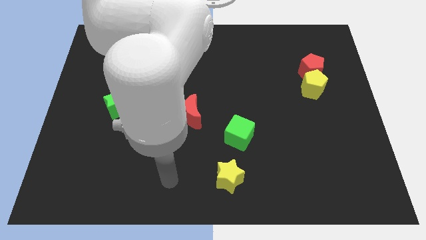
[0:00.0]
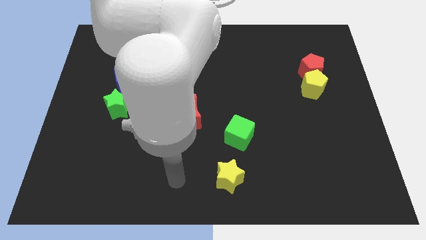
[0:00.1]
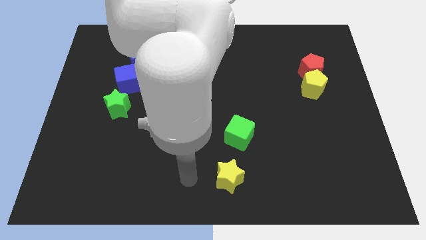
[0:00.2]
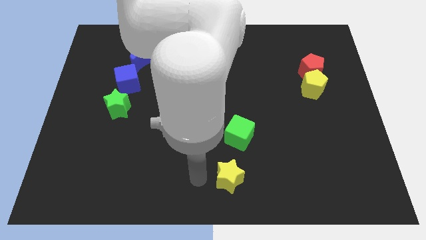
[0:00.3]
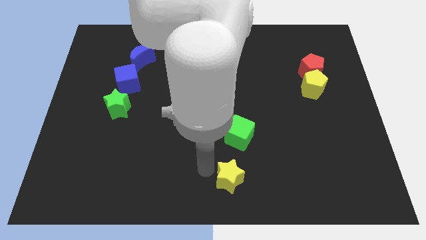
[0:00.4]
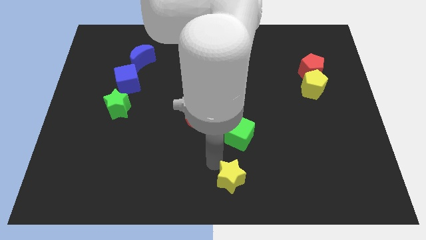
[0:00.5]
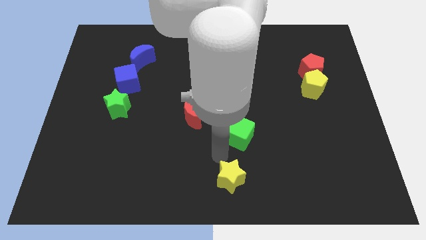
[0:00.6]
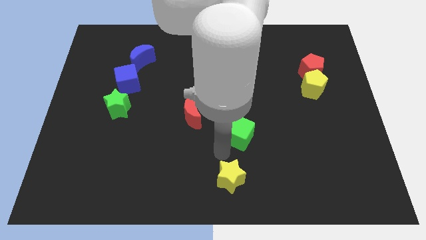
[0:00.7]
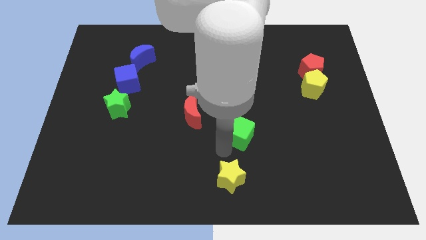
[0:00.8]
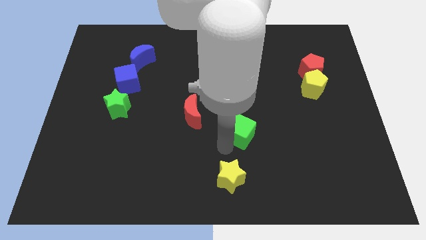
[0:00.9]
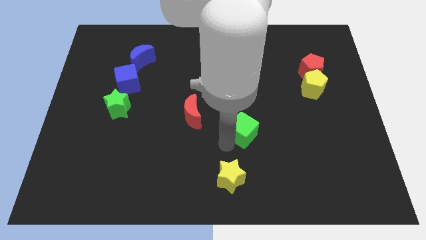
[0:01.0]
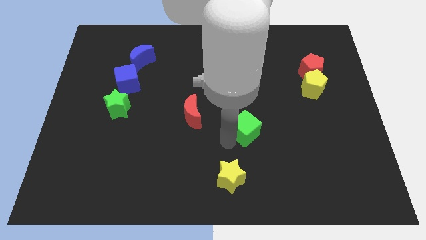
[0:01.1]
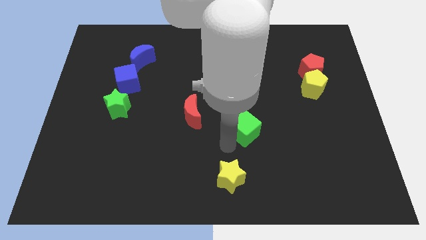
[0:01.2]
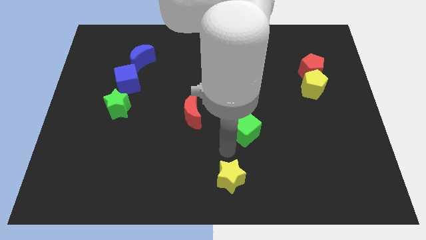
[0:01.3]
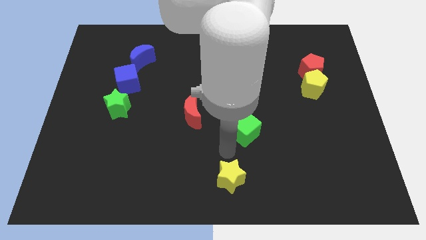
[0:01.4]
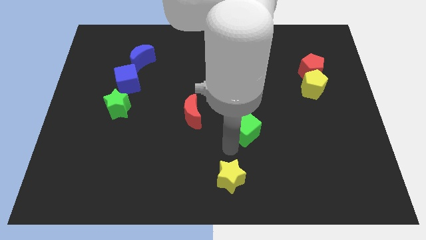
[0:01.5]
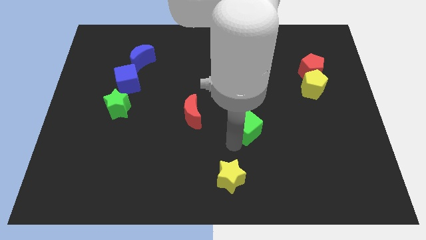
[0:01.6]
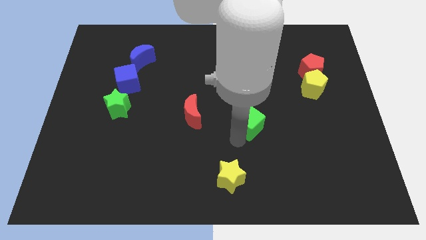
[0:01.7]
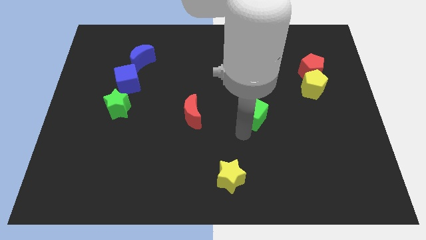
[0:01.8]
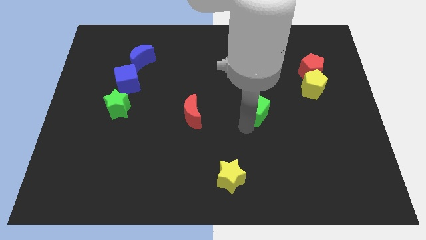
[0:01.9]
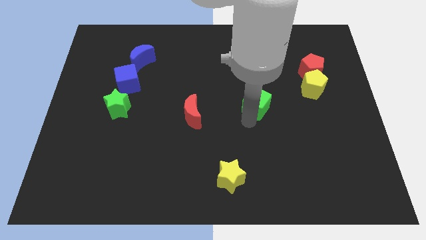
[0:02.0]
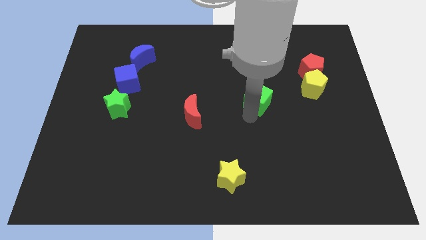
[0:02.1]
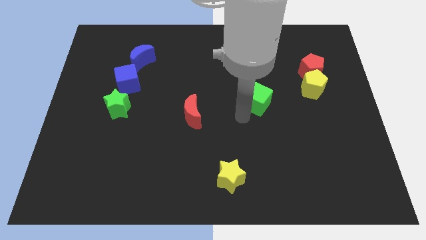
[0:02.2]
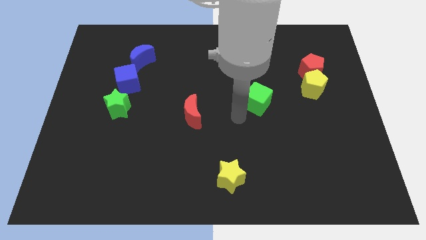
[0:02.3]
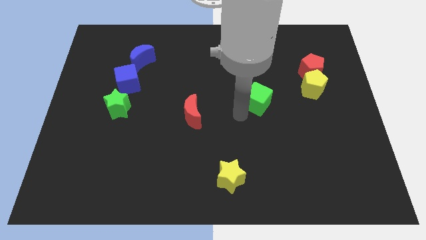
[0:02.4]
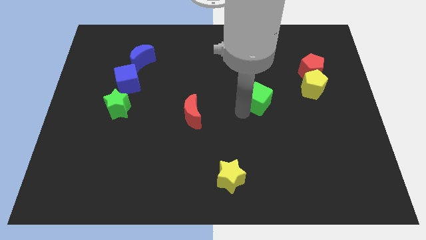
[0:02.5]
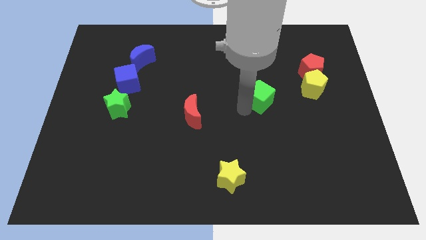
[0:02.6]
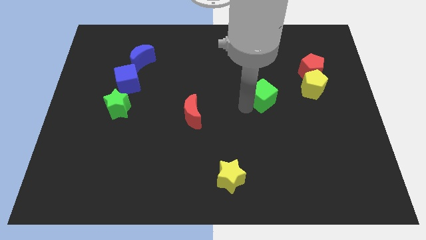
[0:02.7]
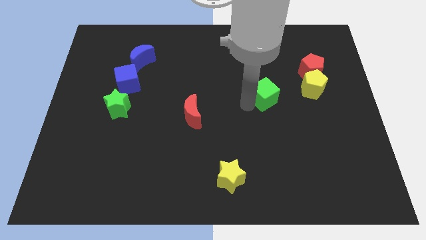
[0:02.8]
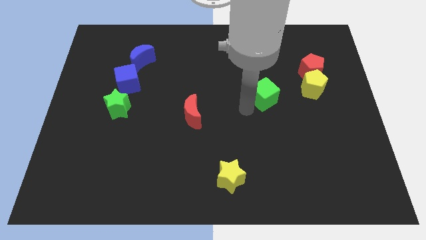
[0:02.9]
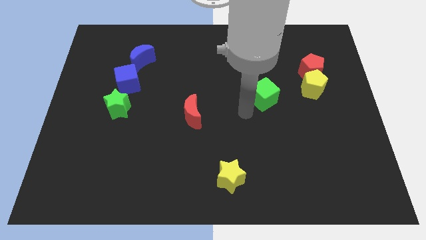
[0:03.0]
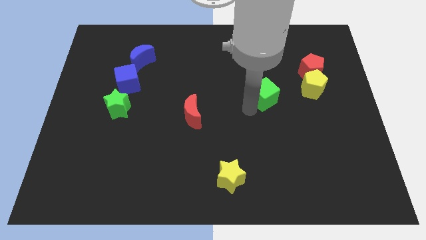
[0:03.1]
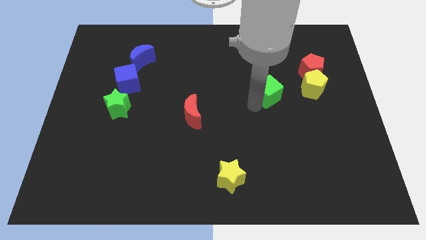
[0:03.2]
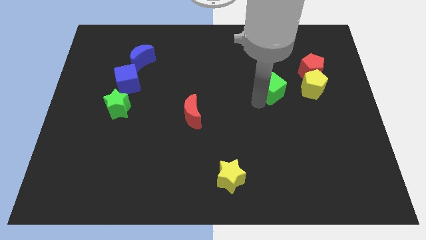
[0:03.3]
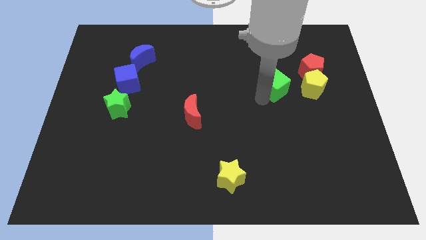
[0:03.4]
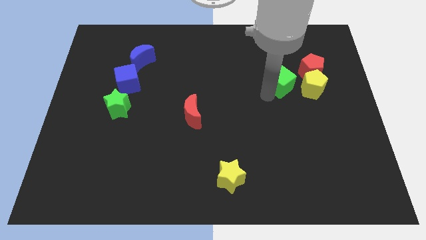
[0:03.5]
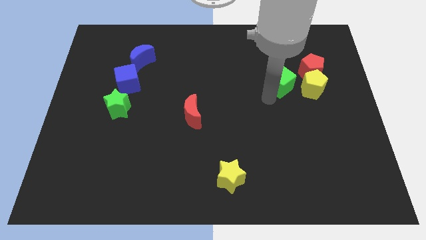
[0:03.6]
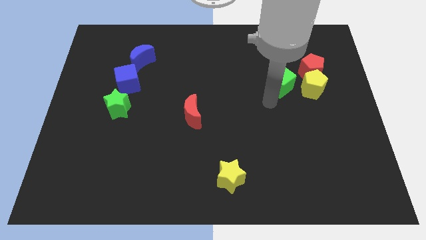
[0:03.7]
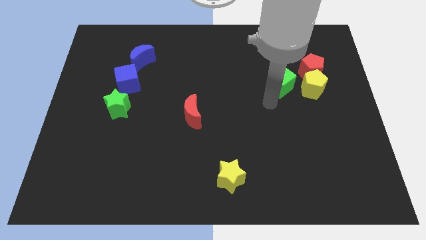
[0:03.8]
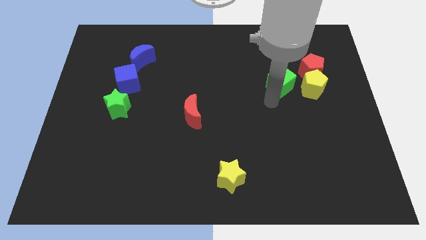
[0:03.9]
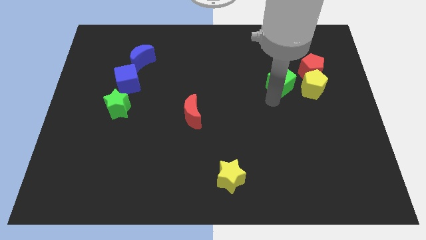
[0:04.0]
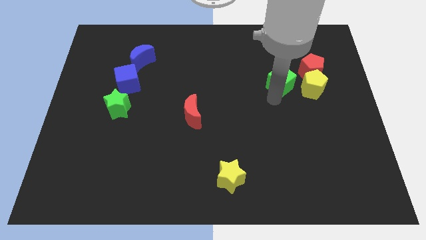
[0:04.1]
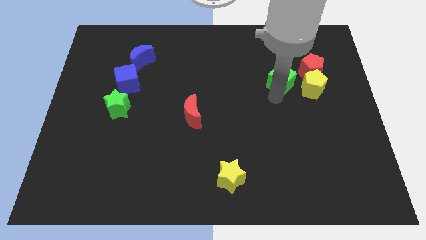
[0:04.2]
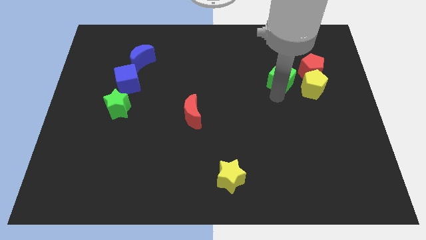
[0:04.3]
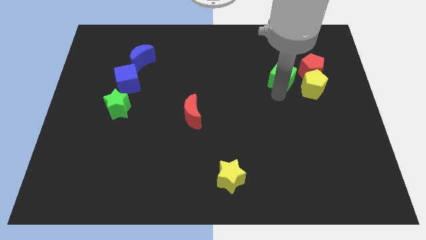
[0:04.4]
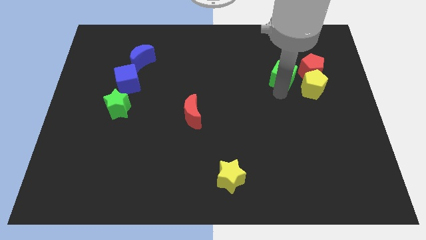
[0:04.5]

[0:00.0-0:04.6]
push the green cube up and then to the right

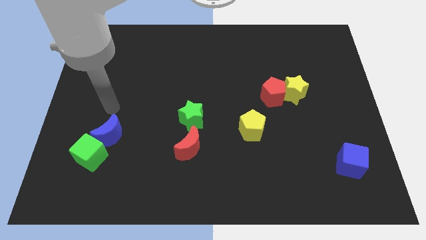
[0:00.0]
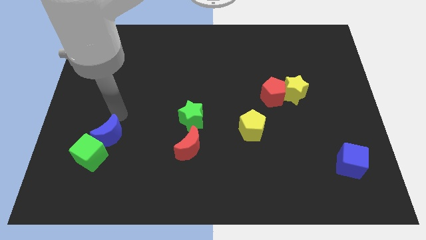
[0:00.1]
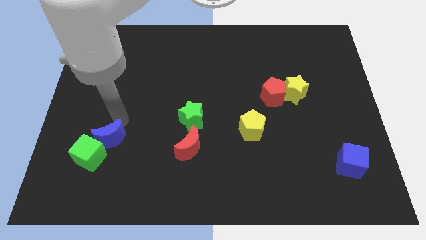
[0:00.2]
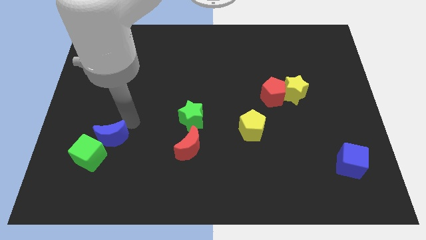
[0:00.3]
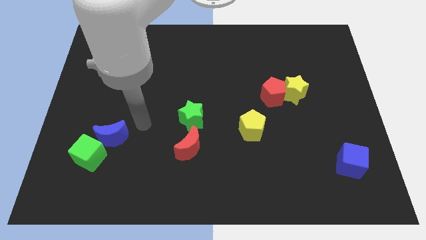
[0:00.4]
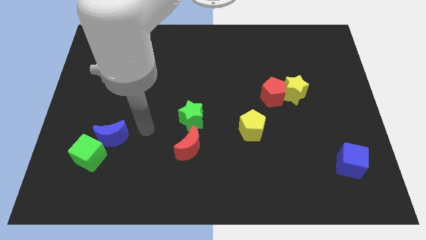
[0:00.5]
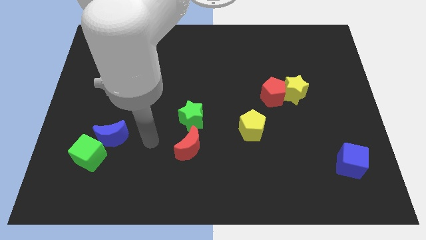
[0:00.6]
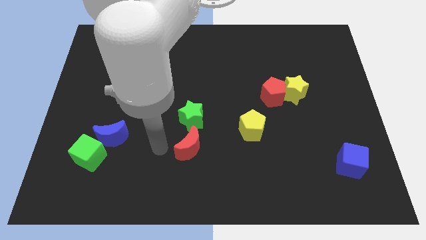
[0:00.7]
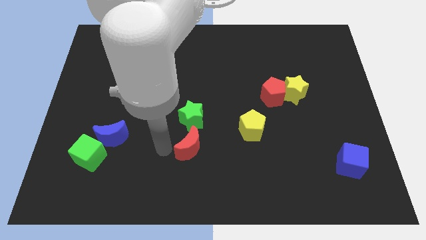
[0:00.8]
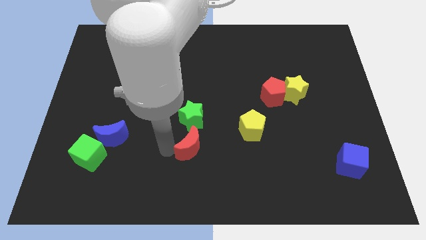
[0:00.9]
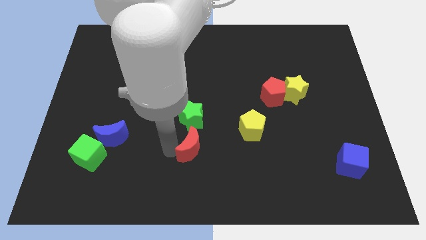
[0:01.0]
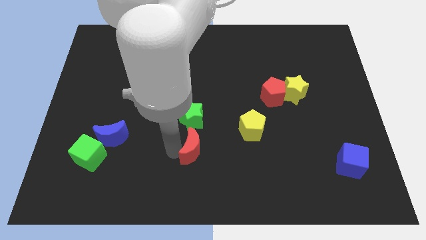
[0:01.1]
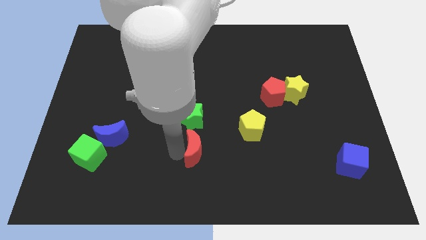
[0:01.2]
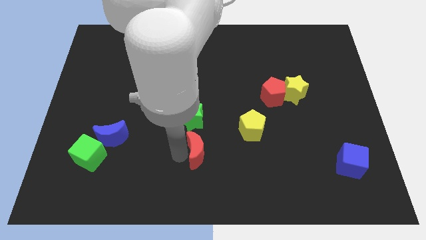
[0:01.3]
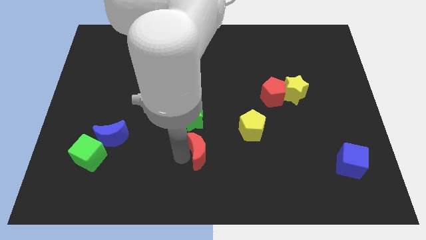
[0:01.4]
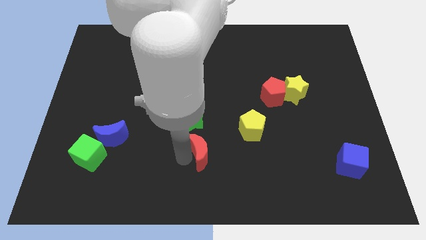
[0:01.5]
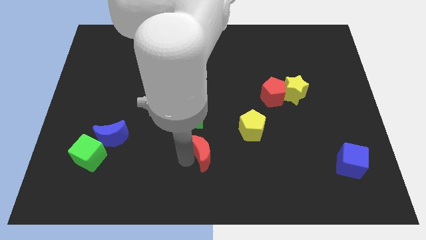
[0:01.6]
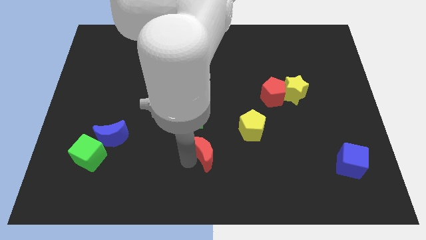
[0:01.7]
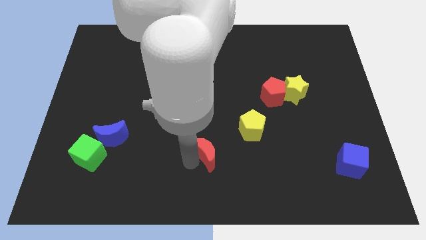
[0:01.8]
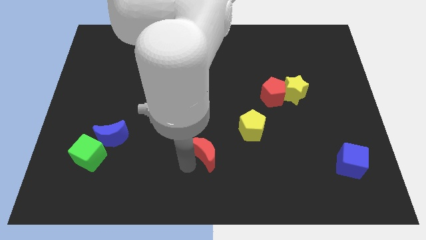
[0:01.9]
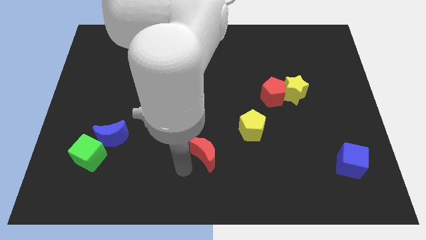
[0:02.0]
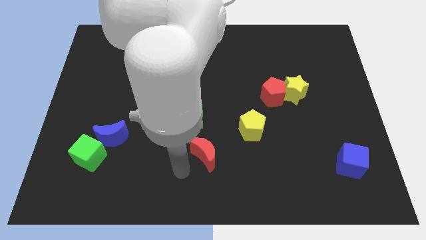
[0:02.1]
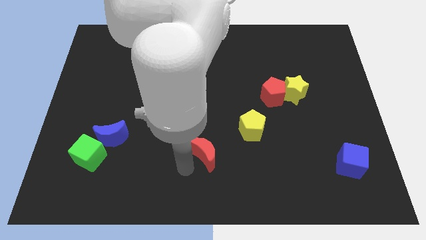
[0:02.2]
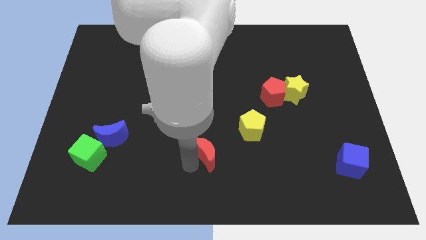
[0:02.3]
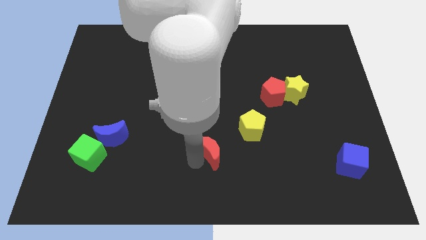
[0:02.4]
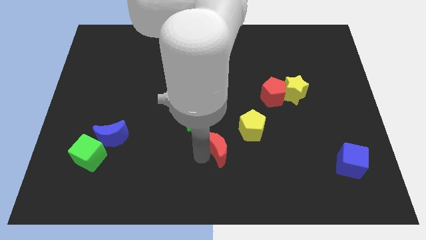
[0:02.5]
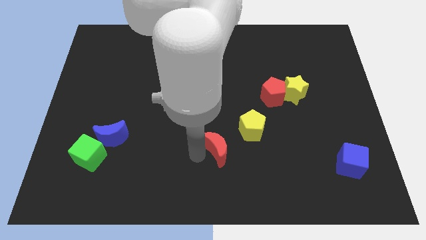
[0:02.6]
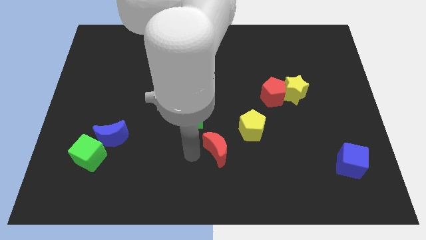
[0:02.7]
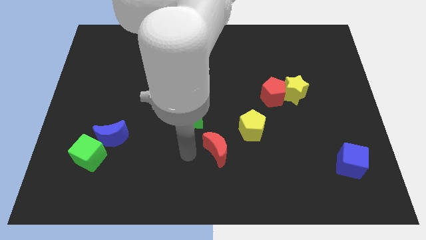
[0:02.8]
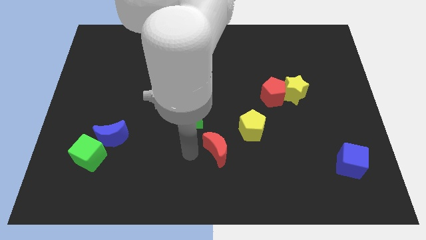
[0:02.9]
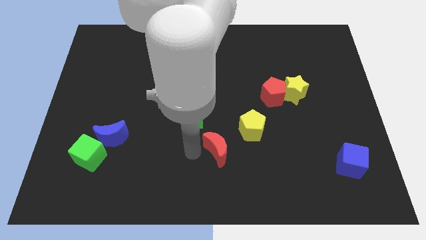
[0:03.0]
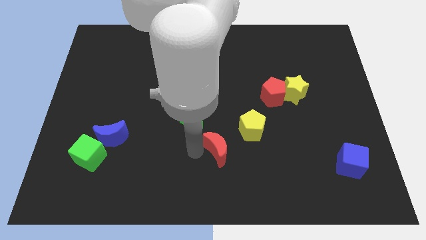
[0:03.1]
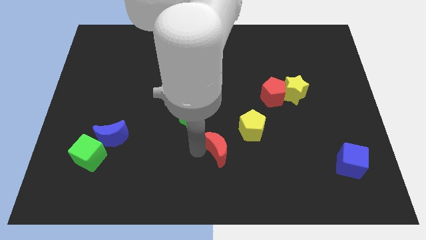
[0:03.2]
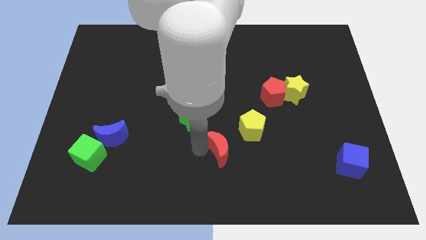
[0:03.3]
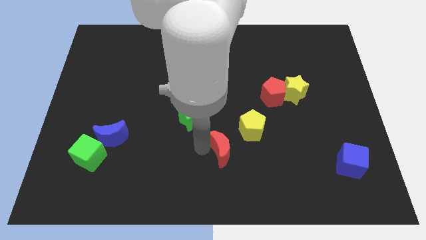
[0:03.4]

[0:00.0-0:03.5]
slightly slide the red moon right

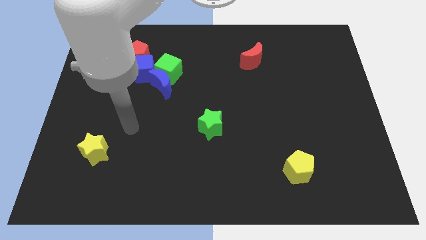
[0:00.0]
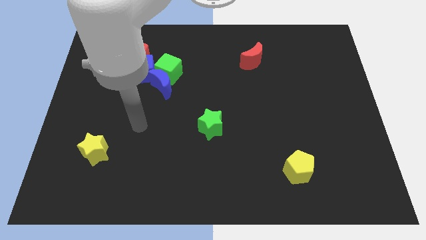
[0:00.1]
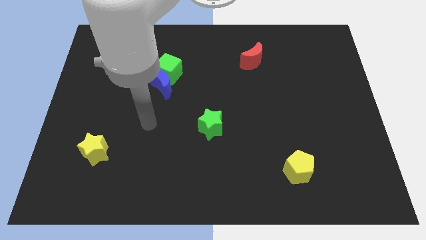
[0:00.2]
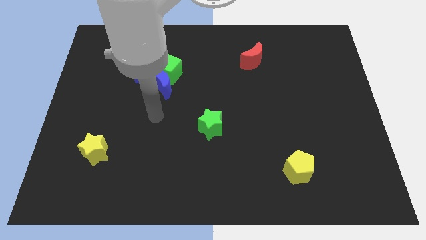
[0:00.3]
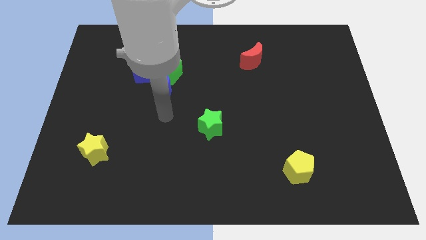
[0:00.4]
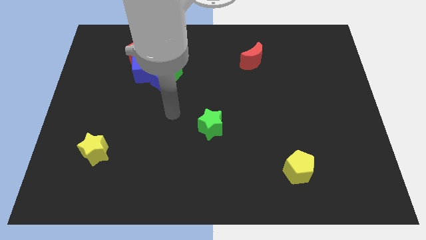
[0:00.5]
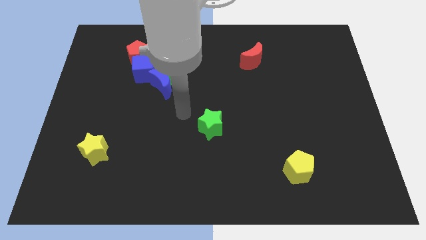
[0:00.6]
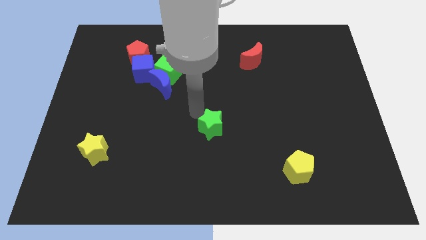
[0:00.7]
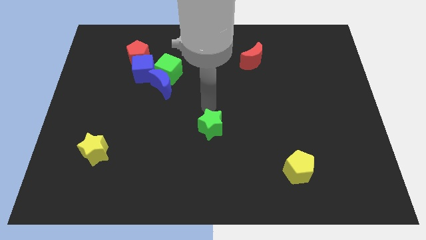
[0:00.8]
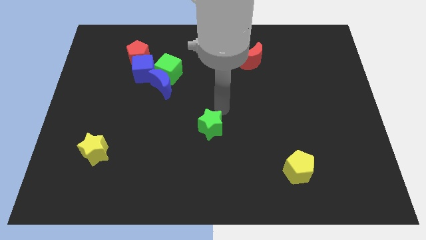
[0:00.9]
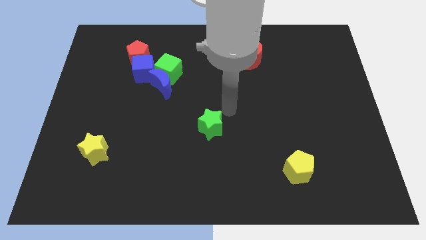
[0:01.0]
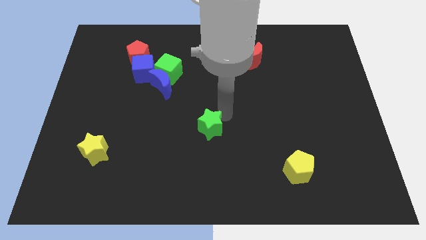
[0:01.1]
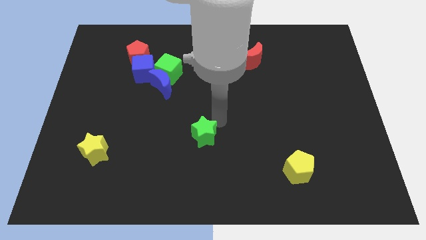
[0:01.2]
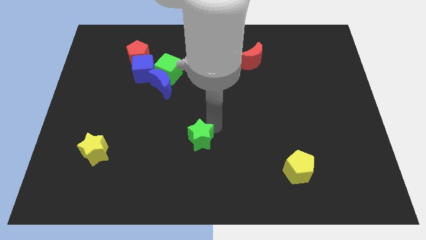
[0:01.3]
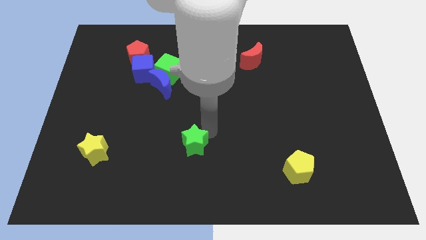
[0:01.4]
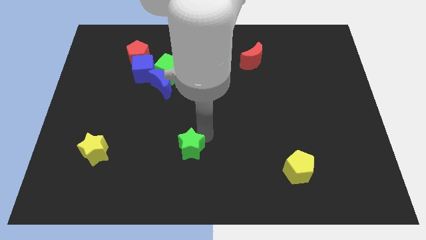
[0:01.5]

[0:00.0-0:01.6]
slightly move the green star downwards and left diagonally
